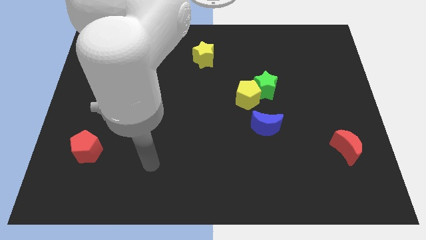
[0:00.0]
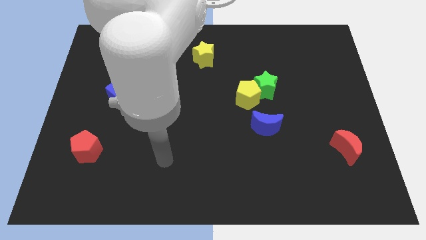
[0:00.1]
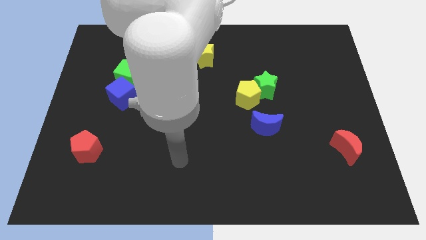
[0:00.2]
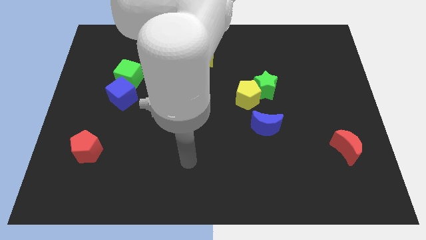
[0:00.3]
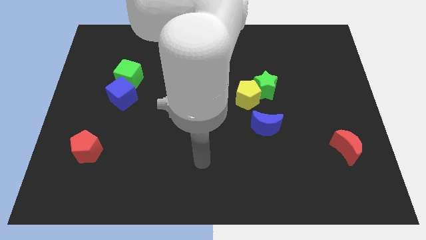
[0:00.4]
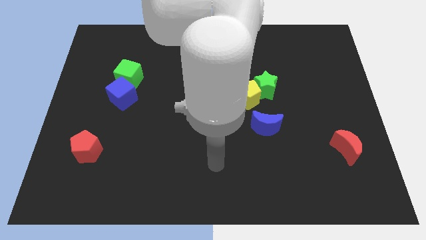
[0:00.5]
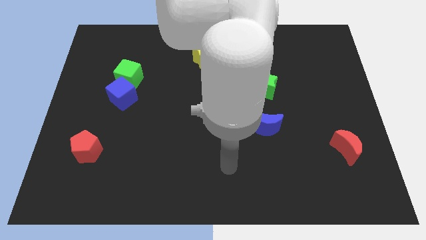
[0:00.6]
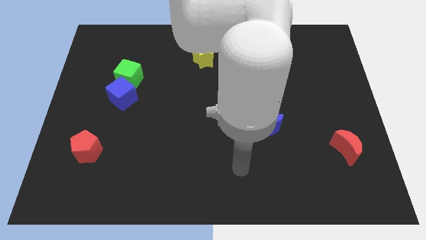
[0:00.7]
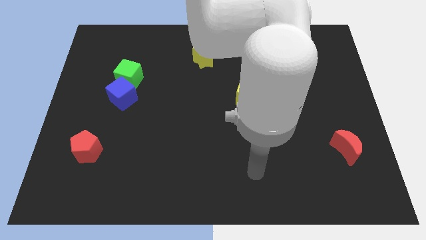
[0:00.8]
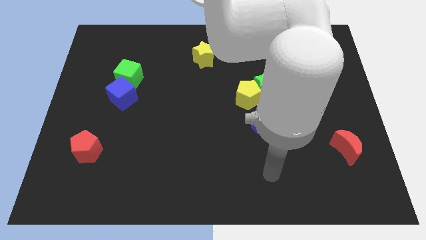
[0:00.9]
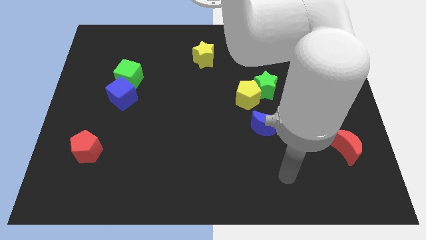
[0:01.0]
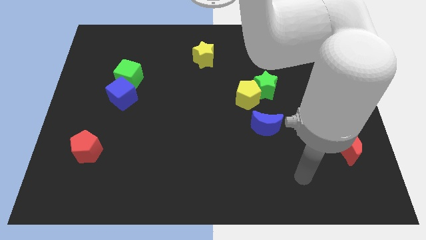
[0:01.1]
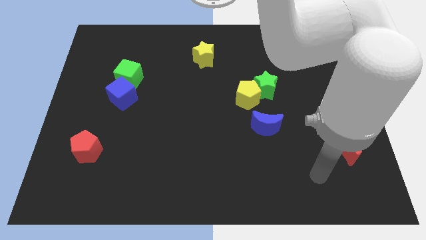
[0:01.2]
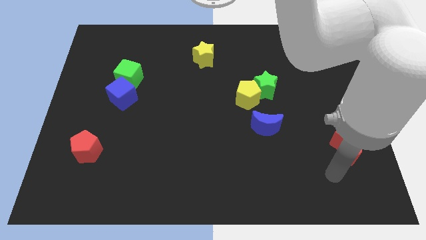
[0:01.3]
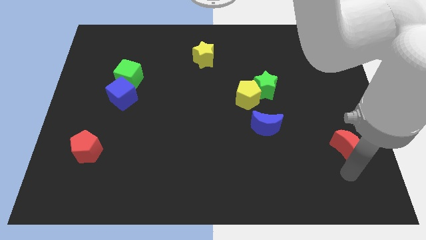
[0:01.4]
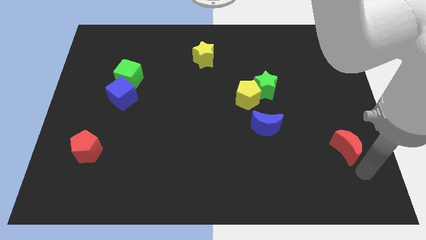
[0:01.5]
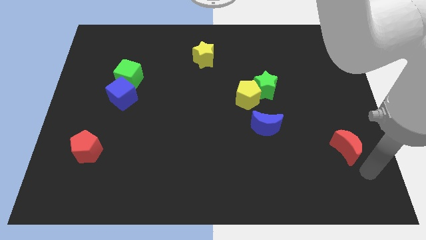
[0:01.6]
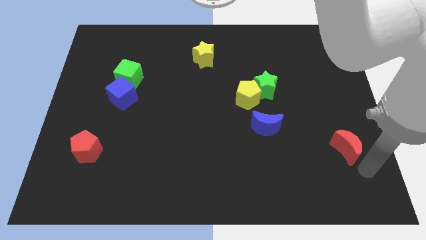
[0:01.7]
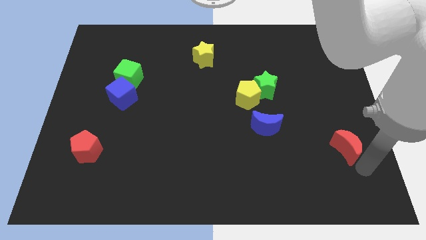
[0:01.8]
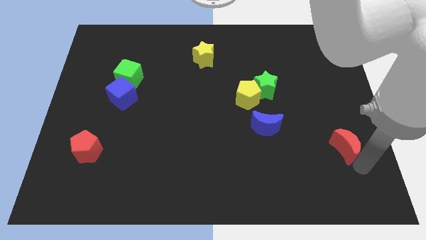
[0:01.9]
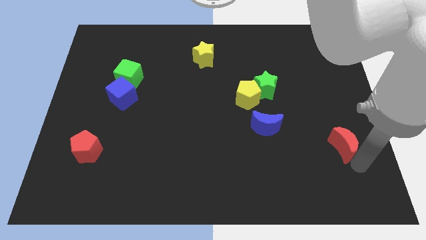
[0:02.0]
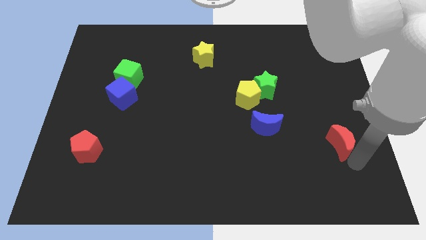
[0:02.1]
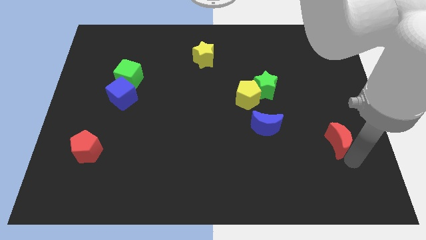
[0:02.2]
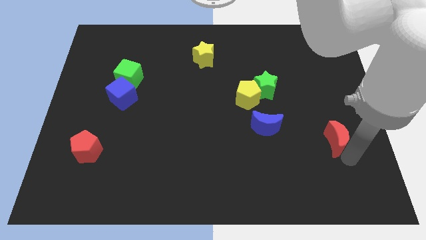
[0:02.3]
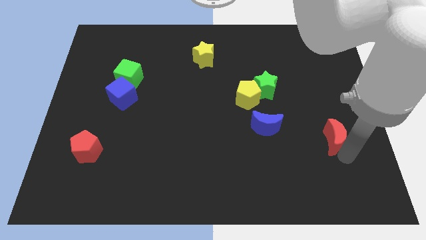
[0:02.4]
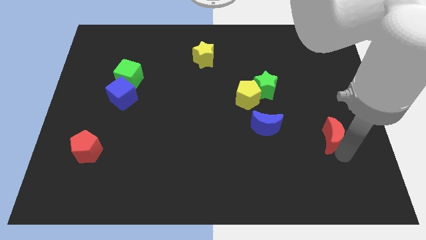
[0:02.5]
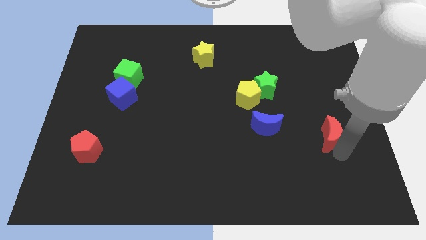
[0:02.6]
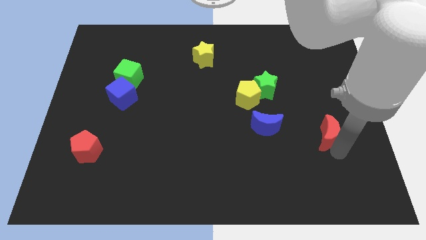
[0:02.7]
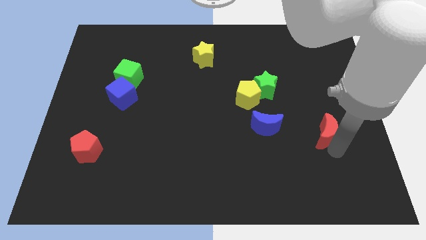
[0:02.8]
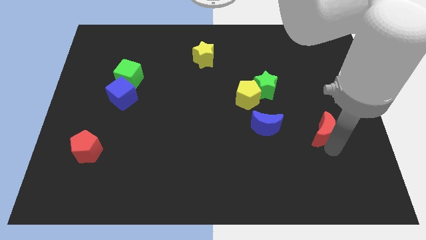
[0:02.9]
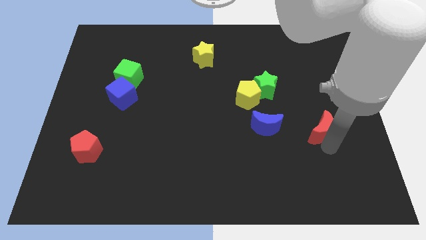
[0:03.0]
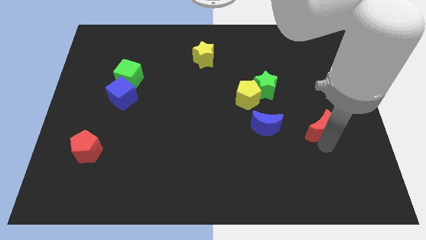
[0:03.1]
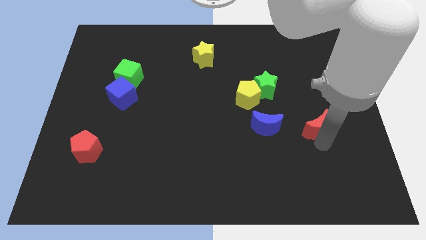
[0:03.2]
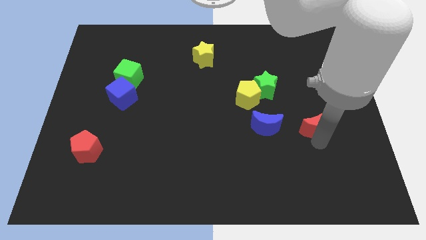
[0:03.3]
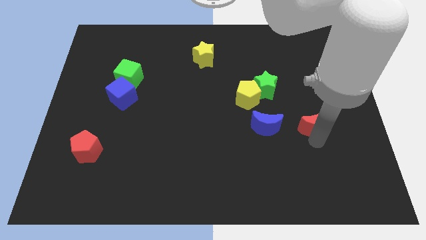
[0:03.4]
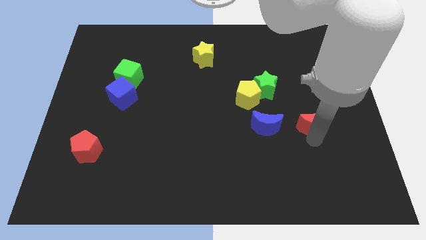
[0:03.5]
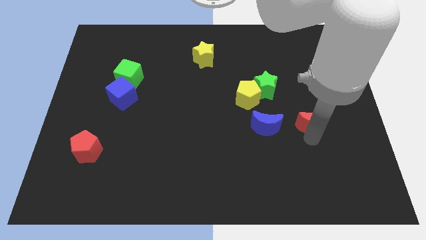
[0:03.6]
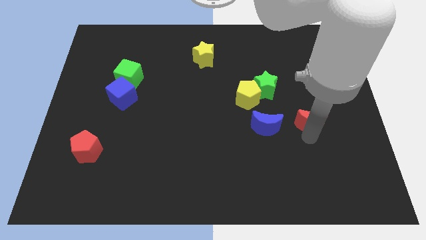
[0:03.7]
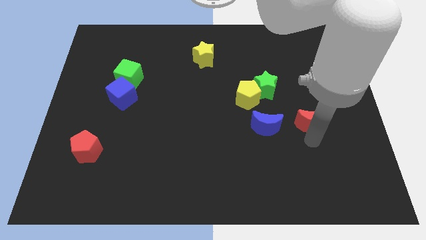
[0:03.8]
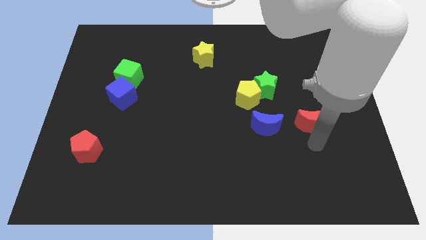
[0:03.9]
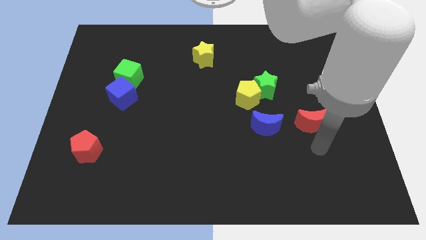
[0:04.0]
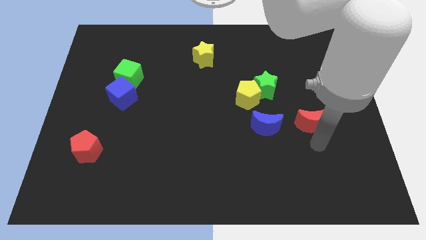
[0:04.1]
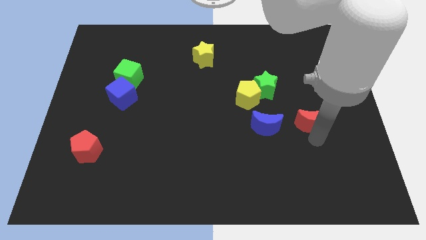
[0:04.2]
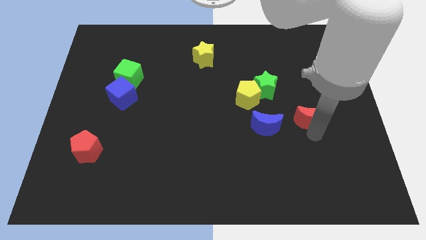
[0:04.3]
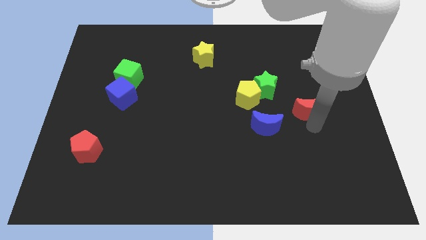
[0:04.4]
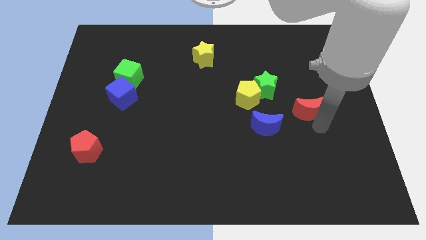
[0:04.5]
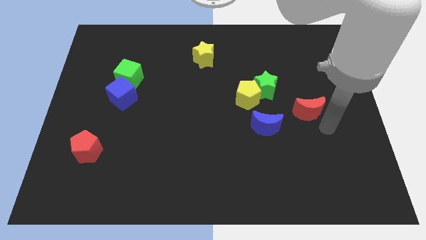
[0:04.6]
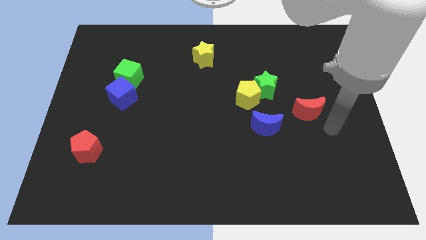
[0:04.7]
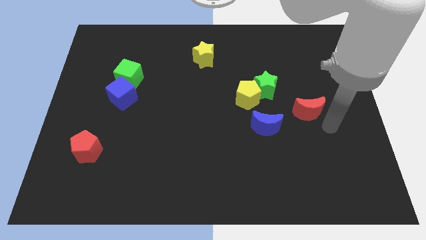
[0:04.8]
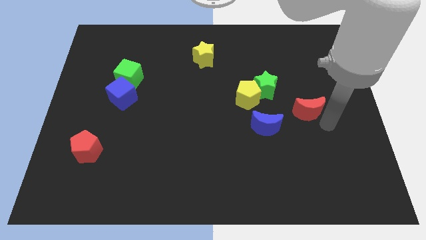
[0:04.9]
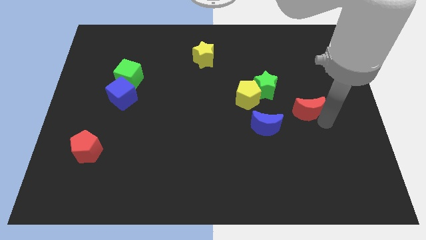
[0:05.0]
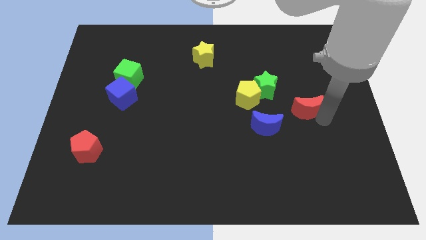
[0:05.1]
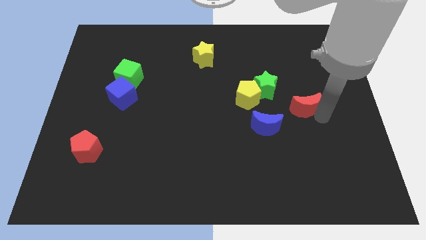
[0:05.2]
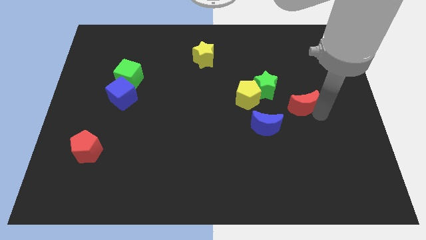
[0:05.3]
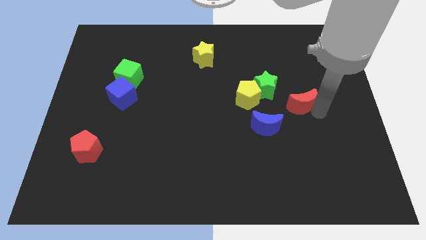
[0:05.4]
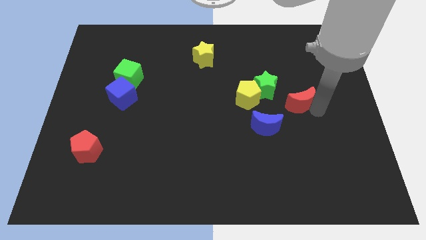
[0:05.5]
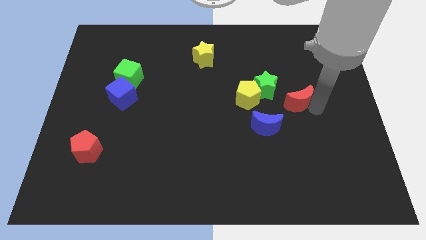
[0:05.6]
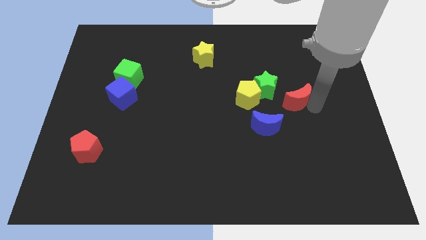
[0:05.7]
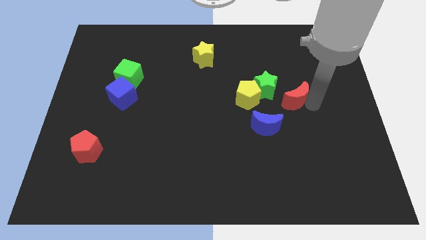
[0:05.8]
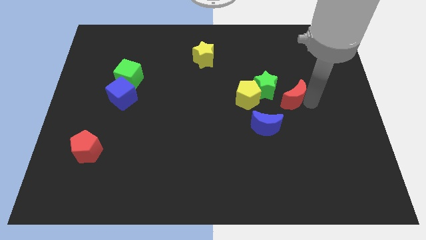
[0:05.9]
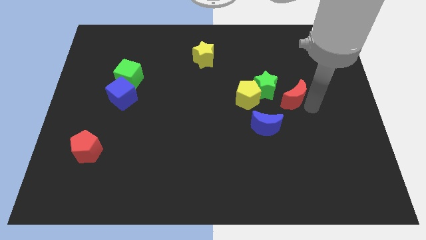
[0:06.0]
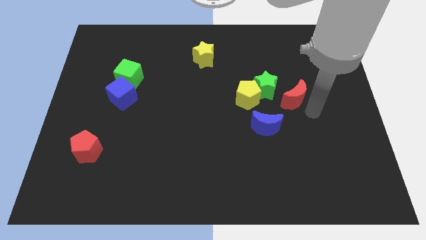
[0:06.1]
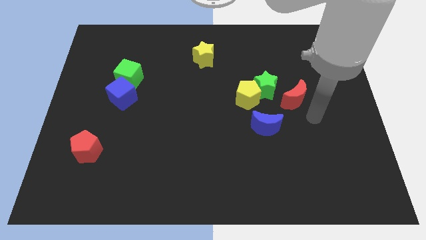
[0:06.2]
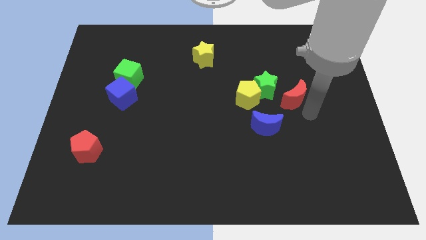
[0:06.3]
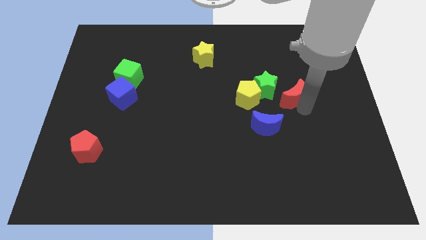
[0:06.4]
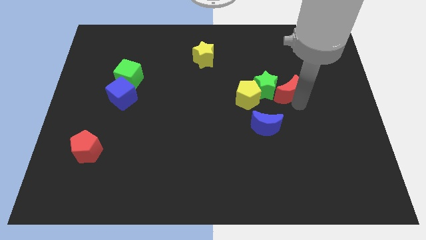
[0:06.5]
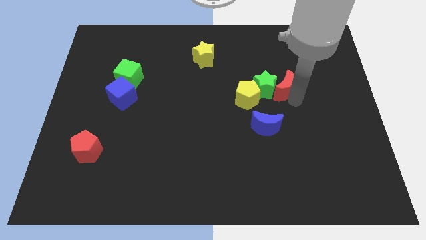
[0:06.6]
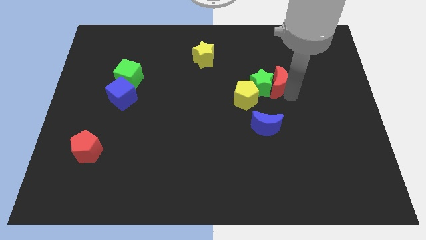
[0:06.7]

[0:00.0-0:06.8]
slide the red moon diagonally upwards and to the left

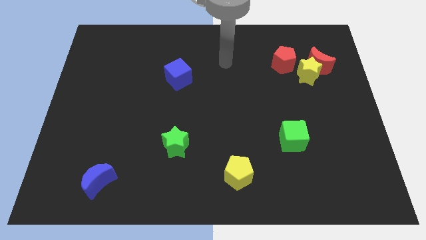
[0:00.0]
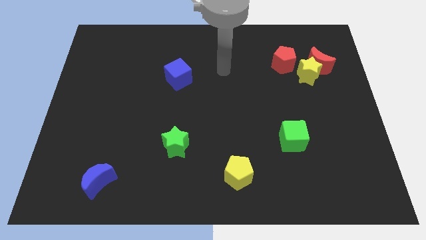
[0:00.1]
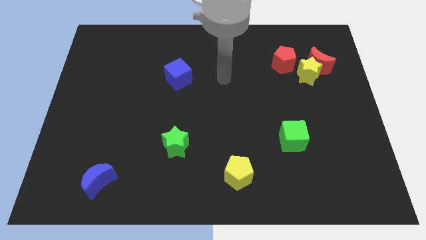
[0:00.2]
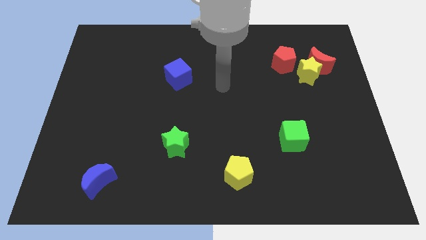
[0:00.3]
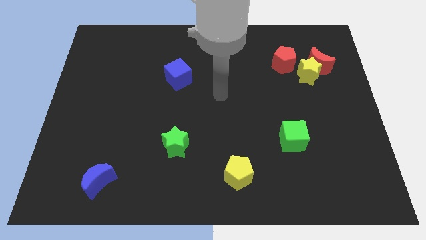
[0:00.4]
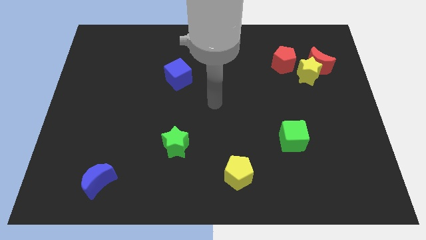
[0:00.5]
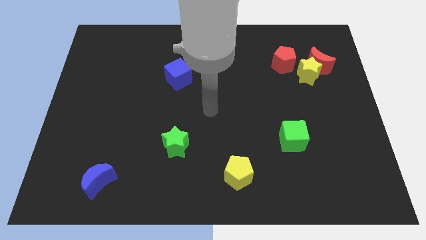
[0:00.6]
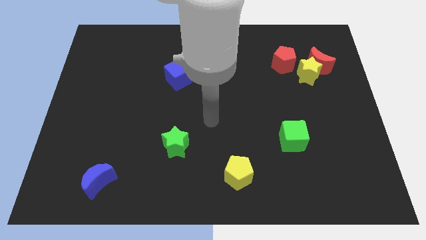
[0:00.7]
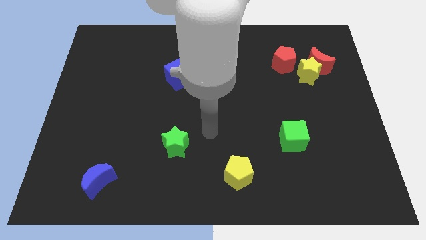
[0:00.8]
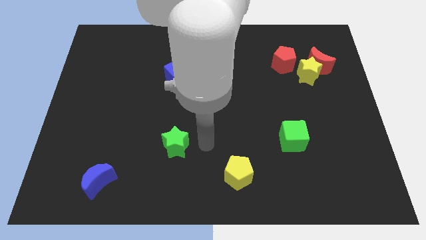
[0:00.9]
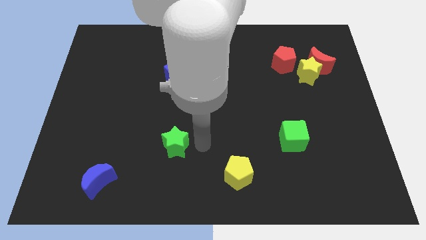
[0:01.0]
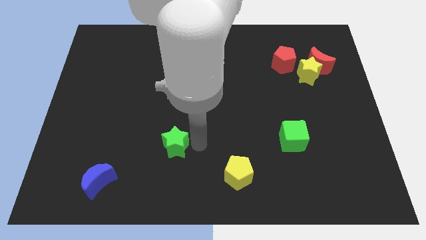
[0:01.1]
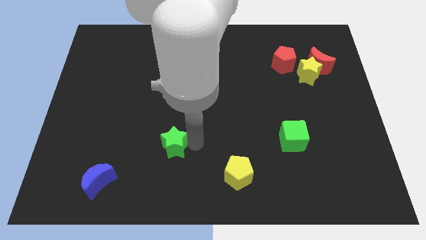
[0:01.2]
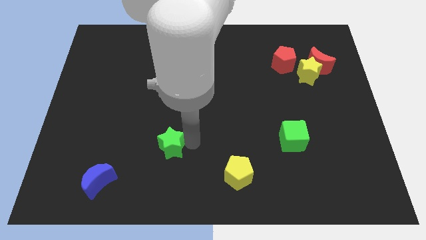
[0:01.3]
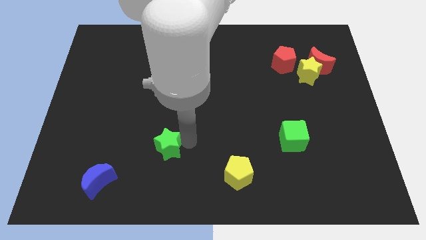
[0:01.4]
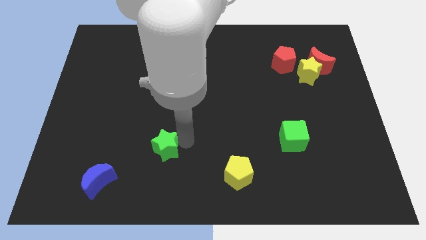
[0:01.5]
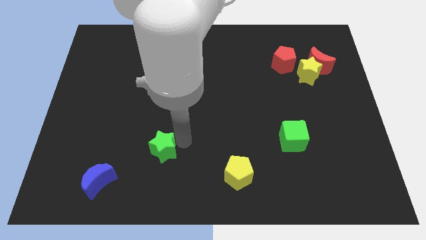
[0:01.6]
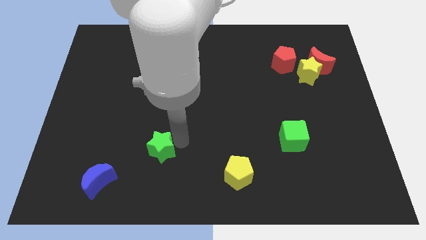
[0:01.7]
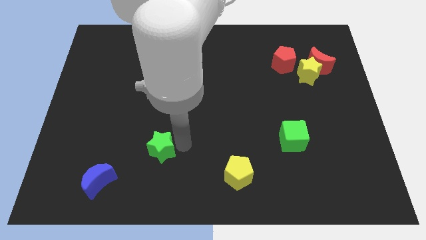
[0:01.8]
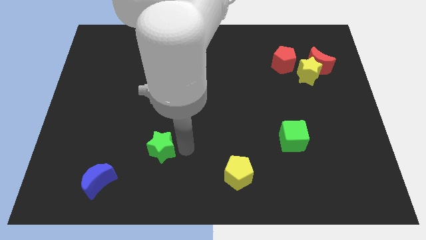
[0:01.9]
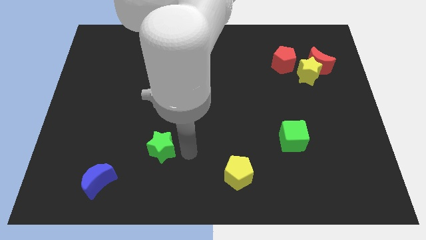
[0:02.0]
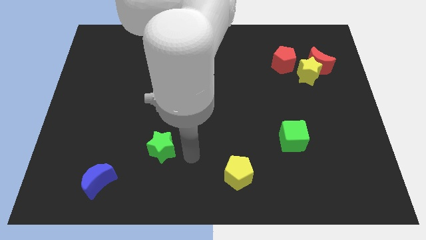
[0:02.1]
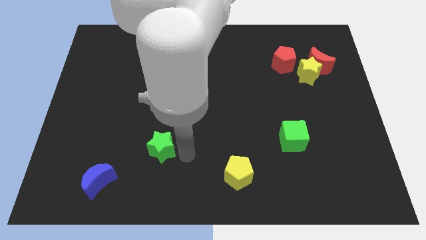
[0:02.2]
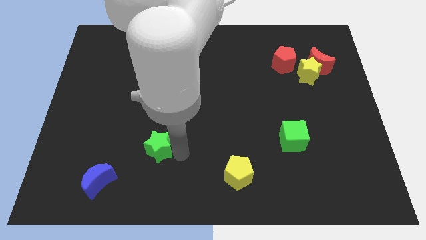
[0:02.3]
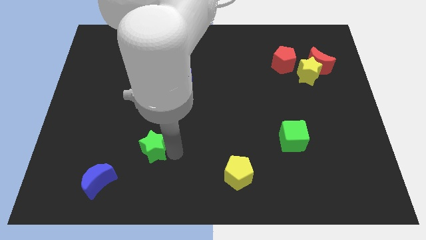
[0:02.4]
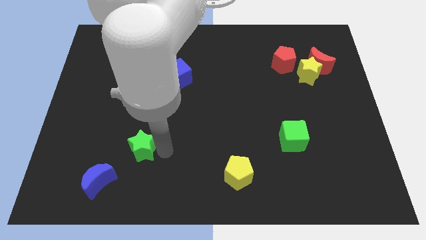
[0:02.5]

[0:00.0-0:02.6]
slide the green star to the left somewhat
